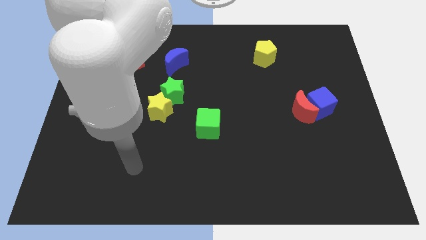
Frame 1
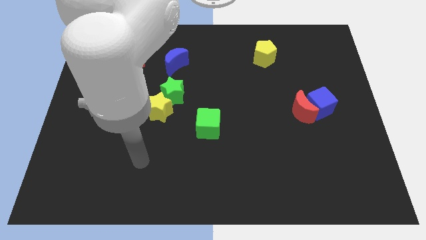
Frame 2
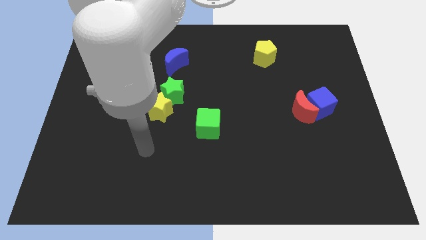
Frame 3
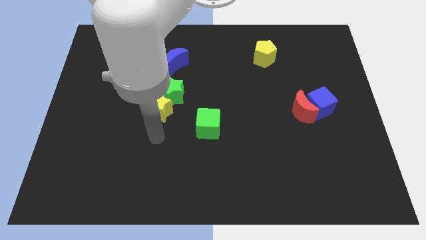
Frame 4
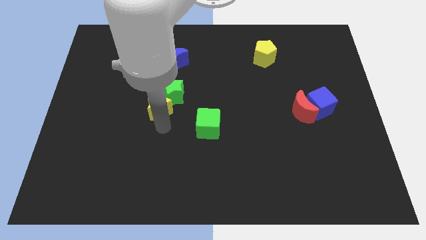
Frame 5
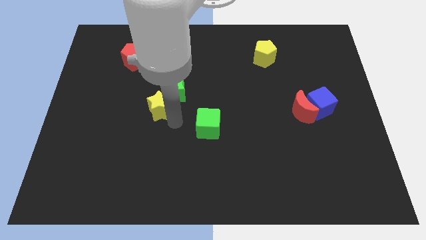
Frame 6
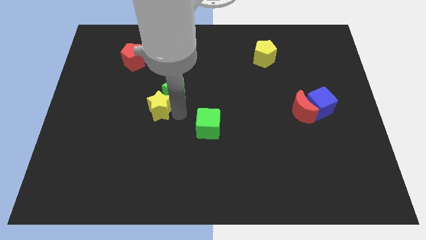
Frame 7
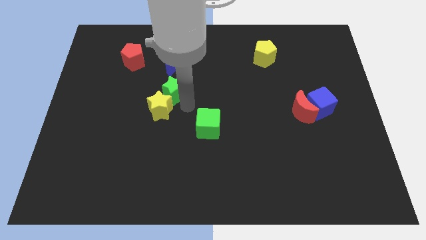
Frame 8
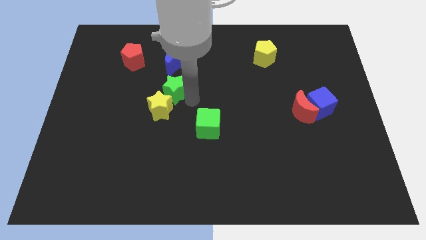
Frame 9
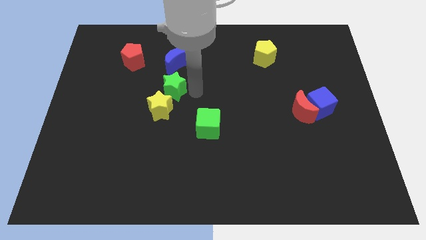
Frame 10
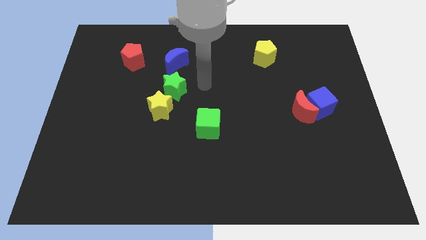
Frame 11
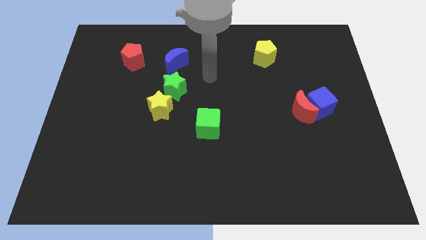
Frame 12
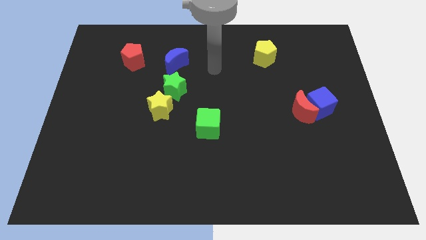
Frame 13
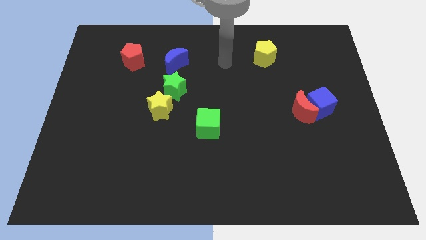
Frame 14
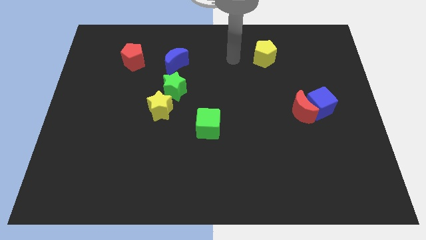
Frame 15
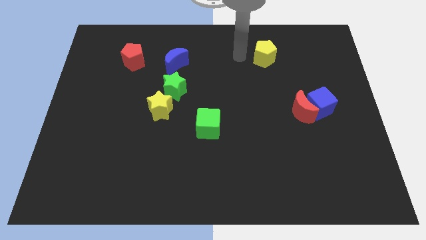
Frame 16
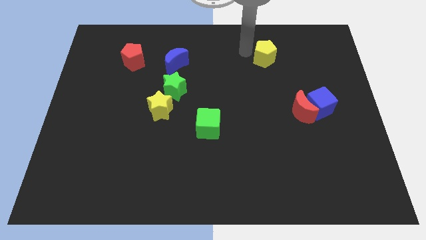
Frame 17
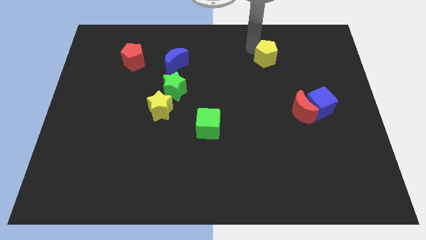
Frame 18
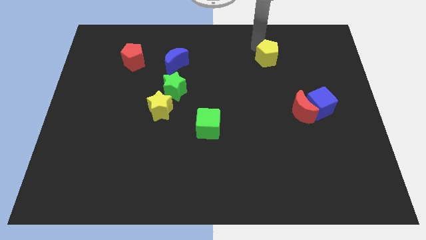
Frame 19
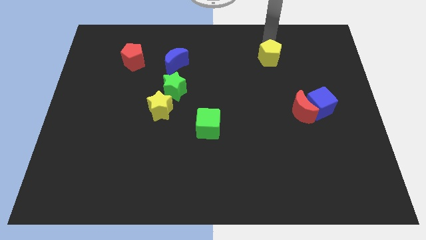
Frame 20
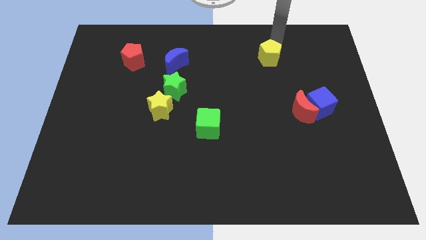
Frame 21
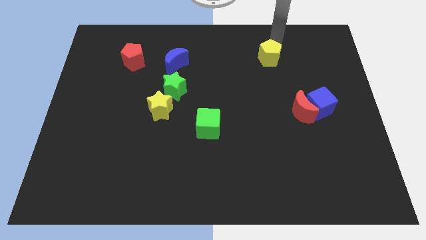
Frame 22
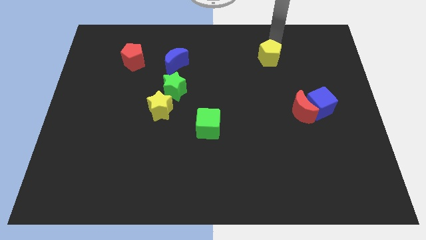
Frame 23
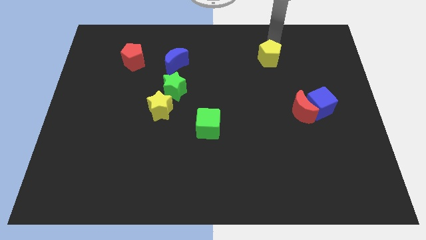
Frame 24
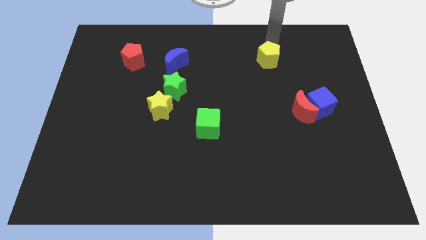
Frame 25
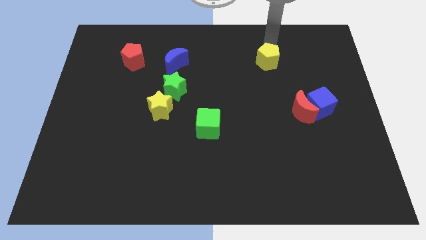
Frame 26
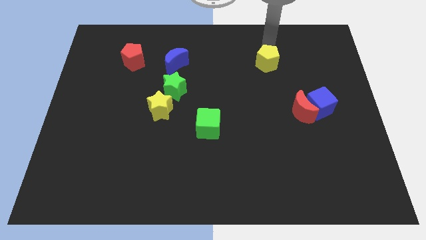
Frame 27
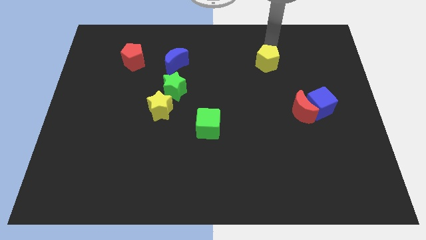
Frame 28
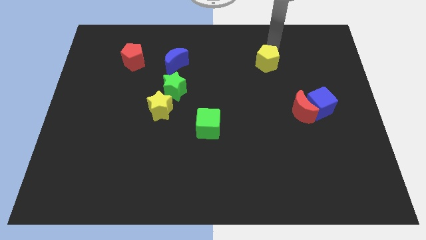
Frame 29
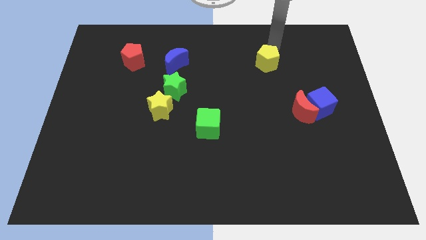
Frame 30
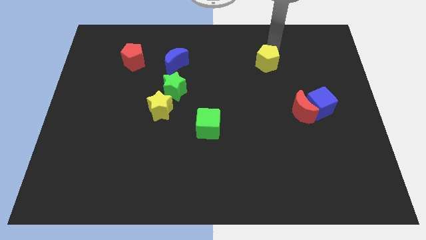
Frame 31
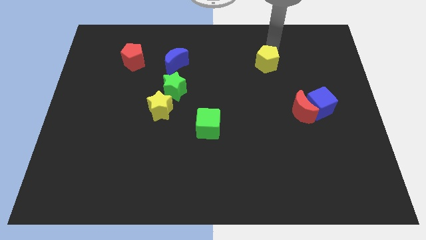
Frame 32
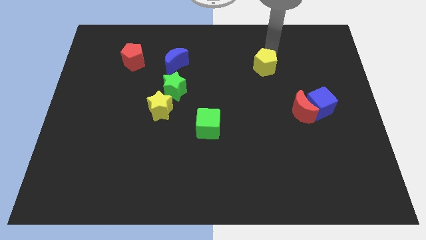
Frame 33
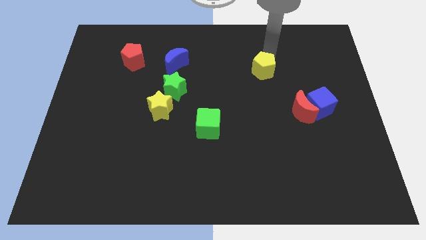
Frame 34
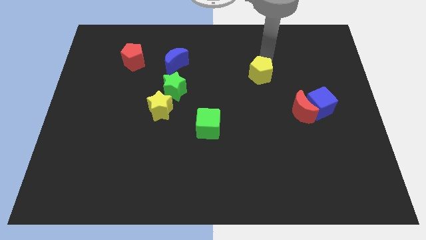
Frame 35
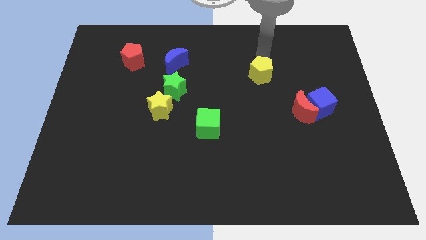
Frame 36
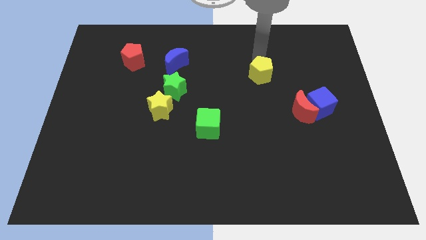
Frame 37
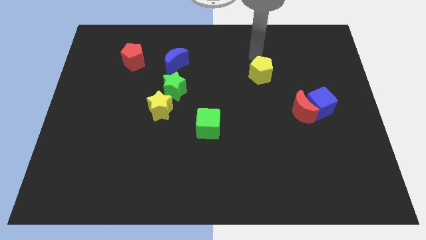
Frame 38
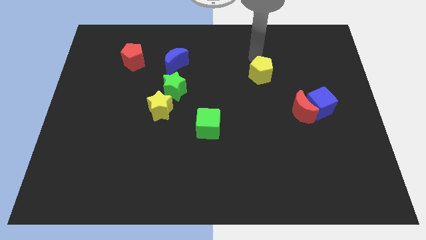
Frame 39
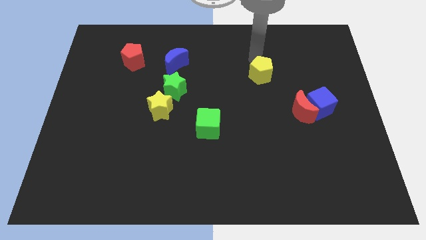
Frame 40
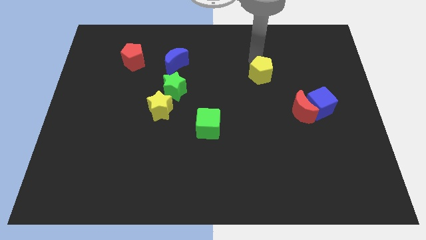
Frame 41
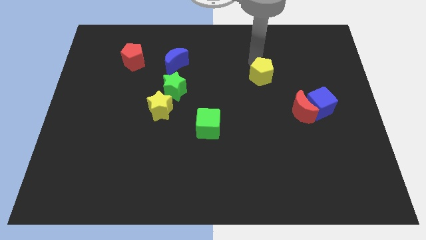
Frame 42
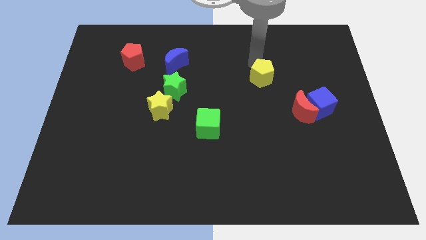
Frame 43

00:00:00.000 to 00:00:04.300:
slide the yellow pentagon a little bit downwards

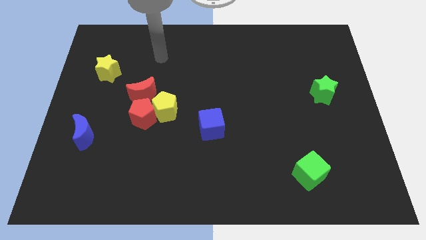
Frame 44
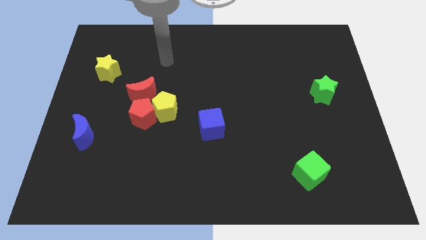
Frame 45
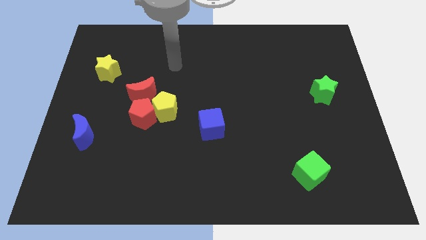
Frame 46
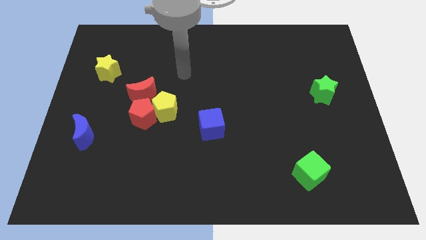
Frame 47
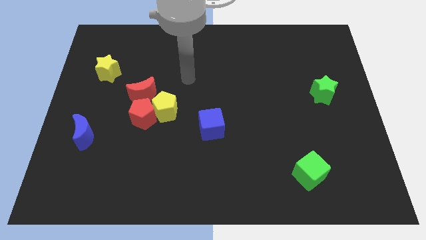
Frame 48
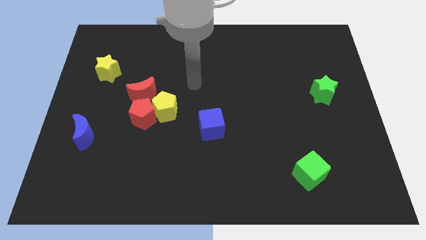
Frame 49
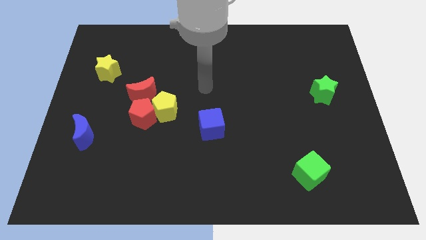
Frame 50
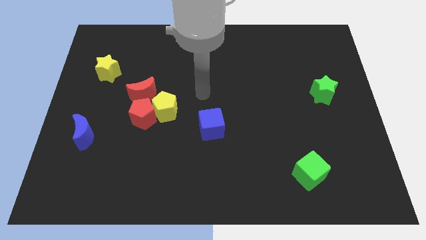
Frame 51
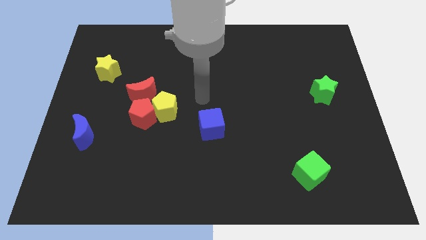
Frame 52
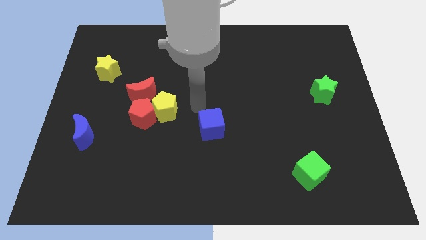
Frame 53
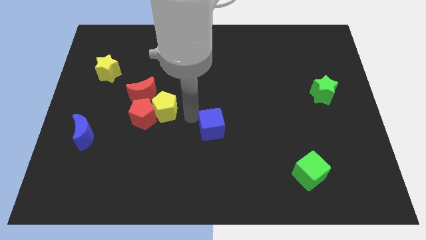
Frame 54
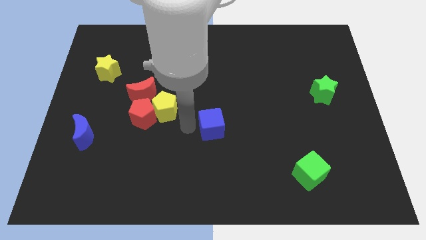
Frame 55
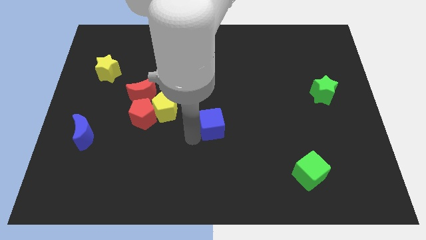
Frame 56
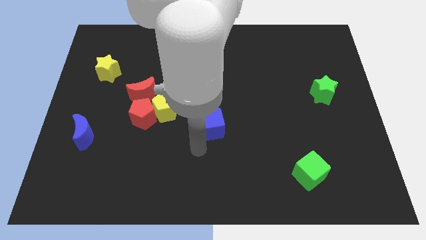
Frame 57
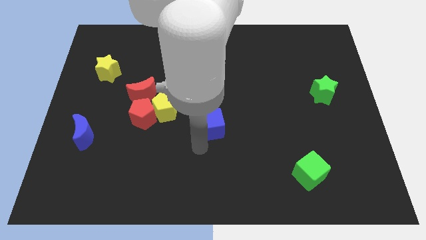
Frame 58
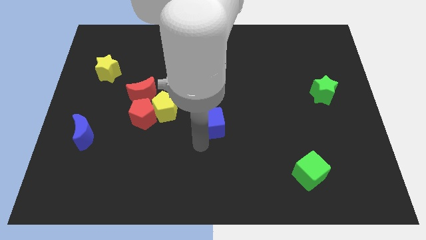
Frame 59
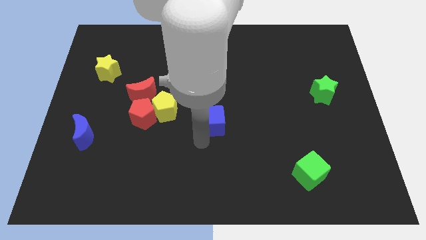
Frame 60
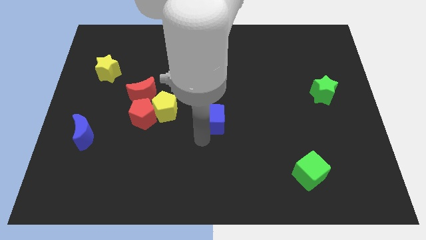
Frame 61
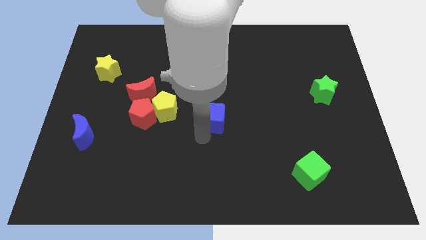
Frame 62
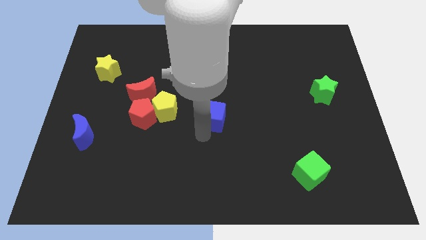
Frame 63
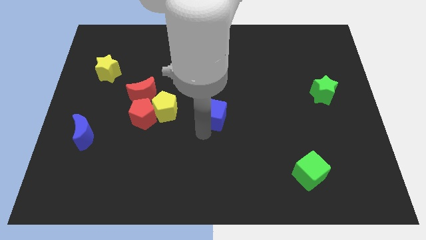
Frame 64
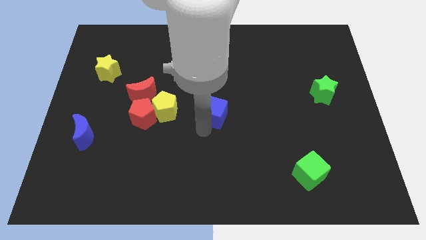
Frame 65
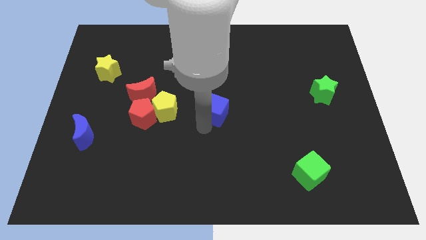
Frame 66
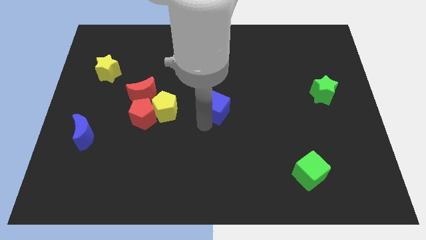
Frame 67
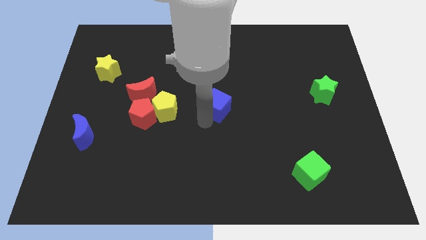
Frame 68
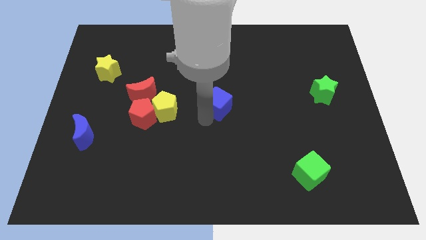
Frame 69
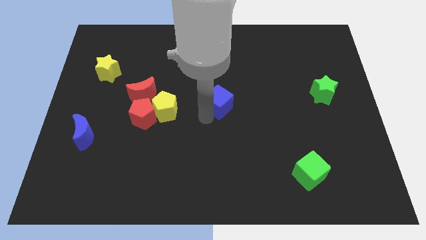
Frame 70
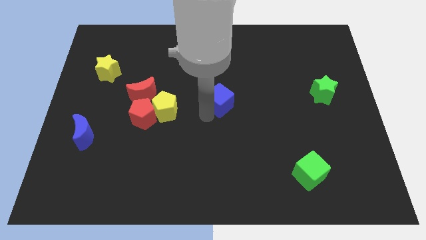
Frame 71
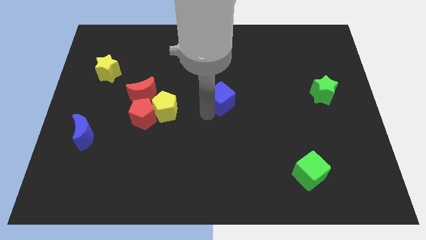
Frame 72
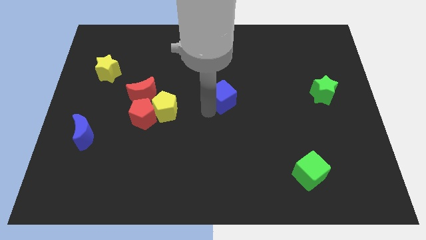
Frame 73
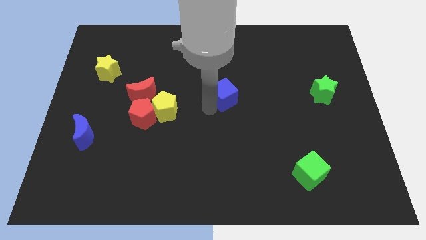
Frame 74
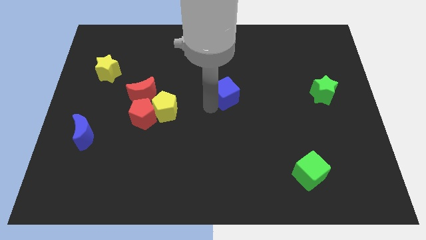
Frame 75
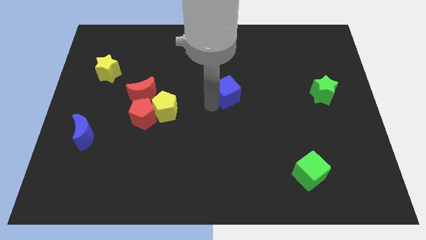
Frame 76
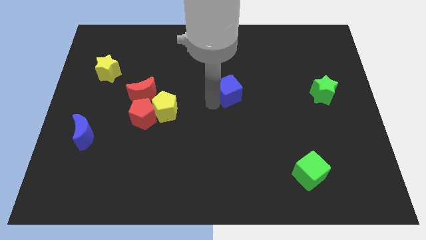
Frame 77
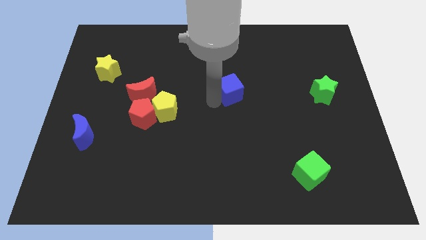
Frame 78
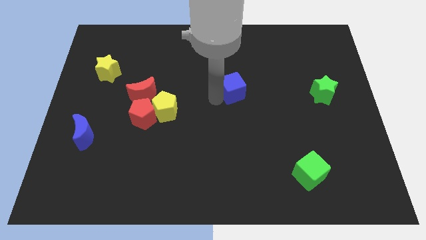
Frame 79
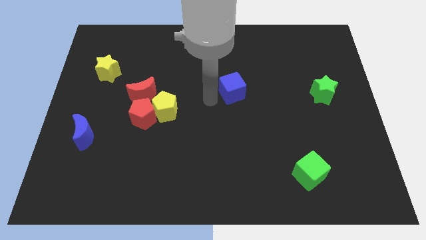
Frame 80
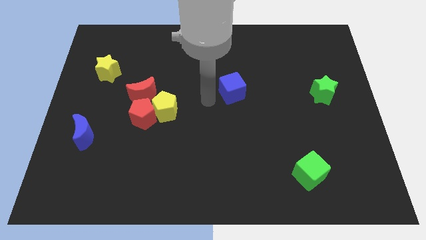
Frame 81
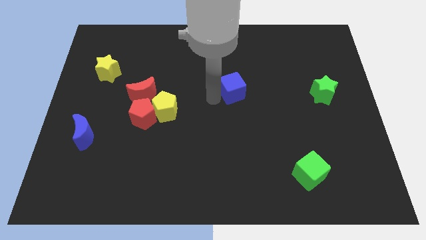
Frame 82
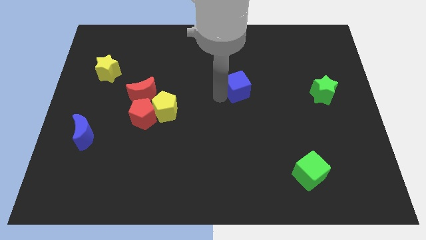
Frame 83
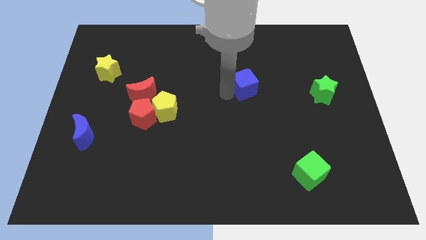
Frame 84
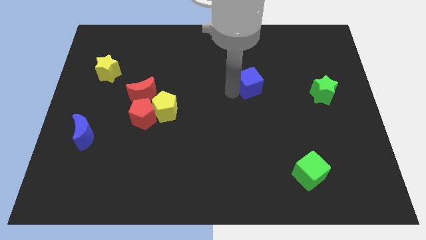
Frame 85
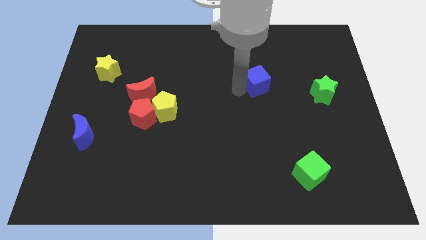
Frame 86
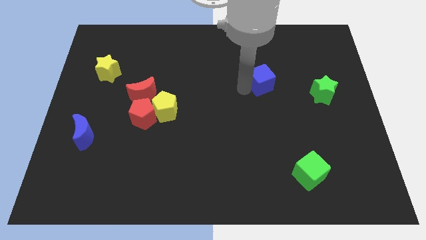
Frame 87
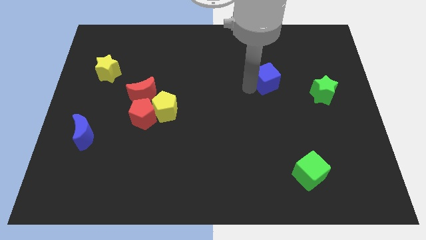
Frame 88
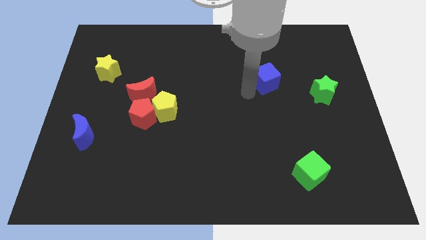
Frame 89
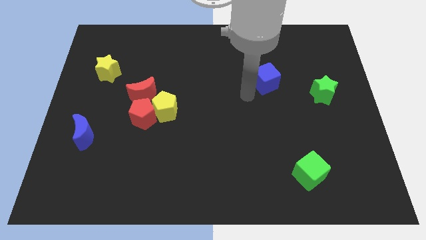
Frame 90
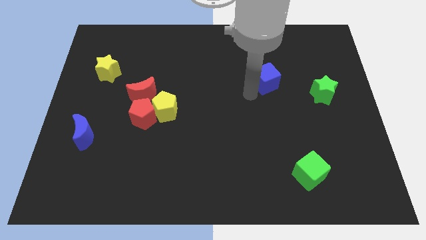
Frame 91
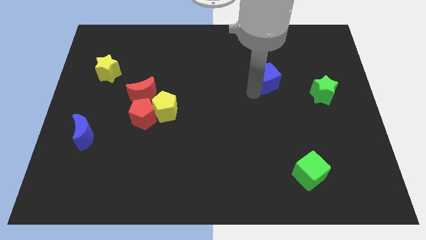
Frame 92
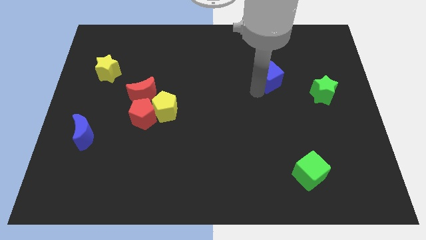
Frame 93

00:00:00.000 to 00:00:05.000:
move the blue cube upwards and then right
